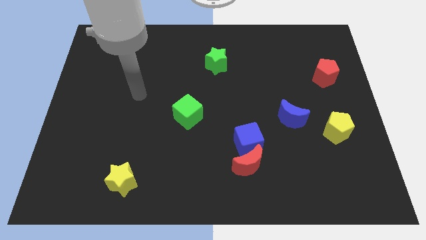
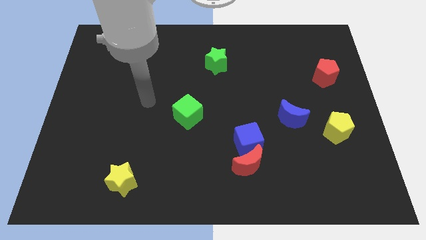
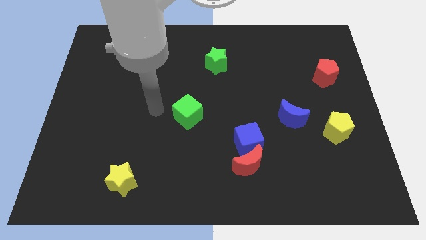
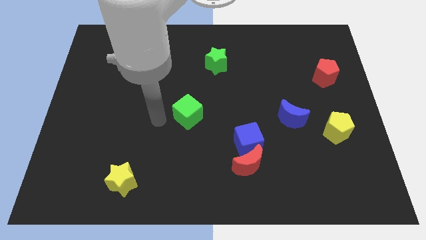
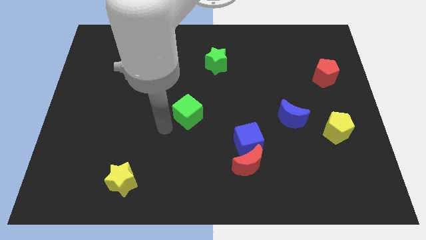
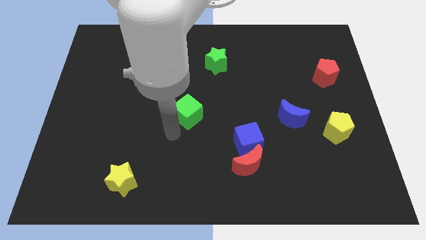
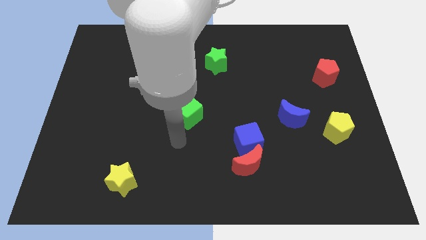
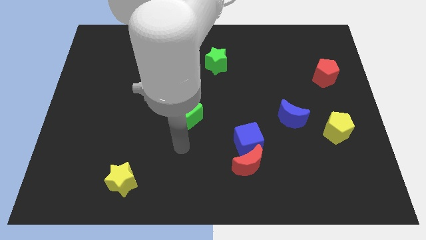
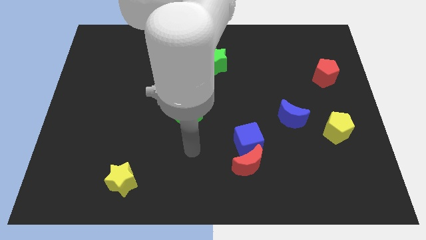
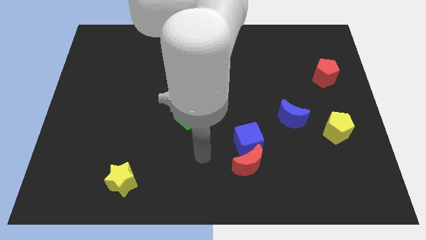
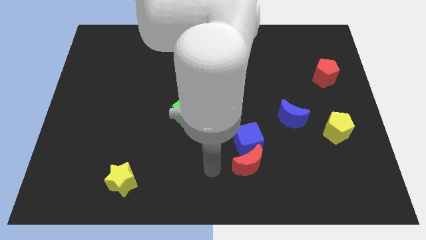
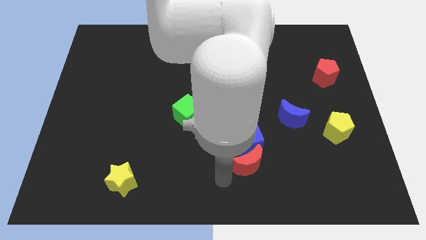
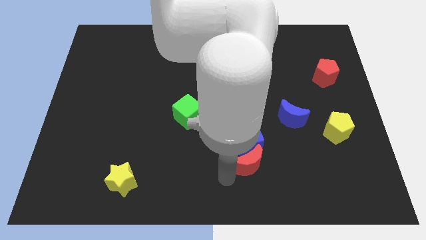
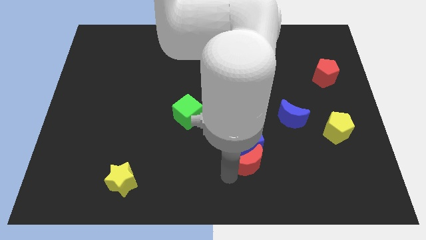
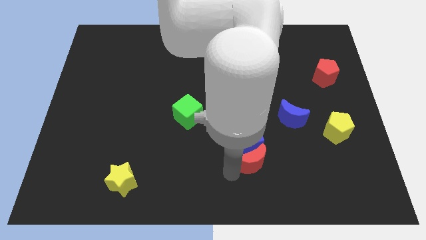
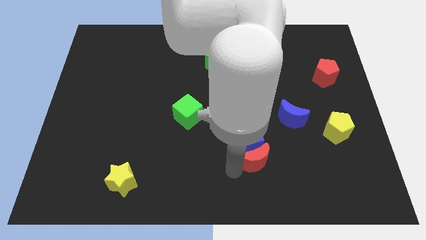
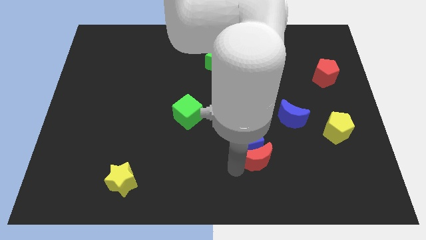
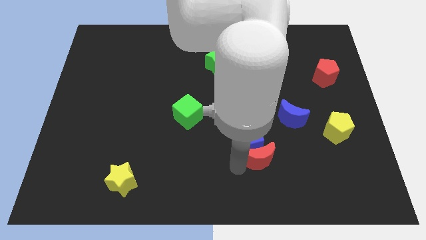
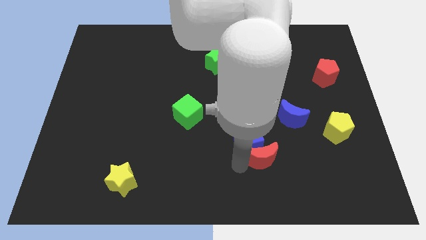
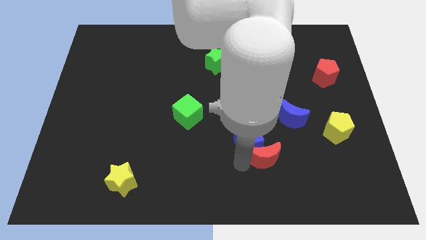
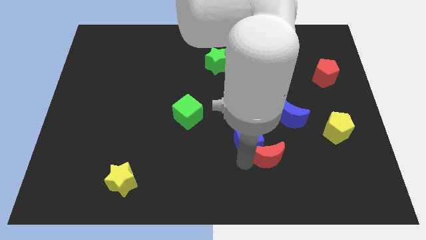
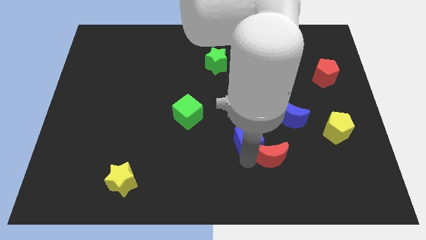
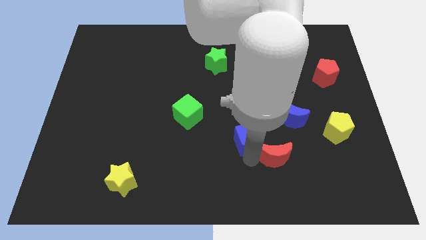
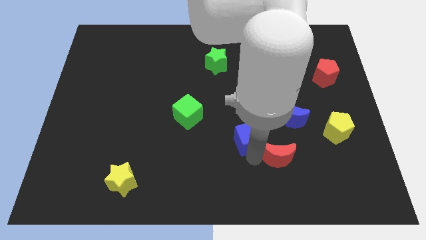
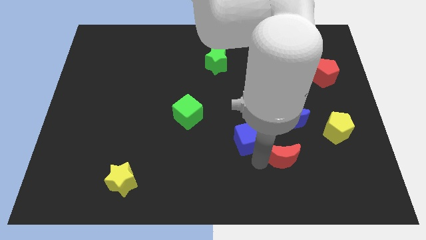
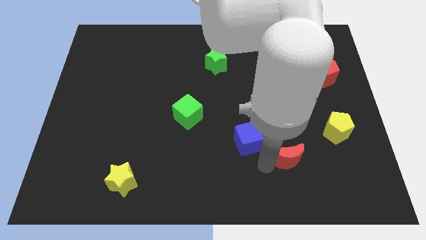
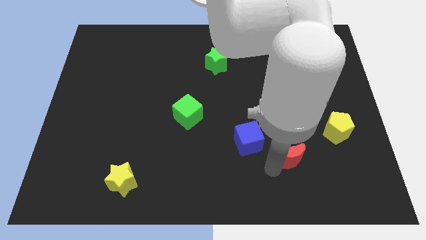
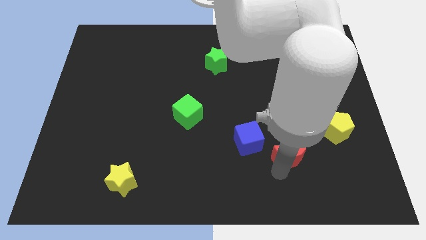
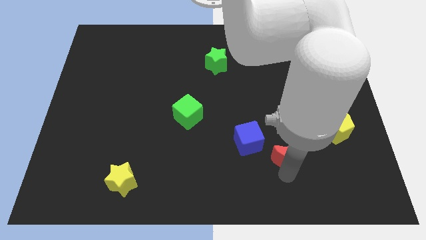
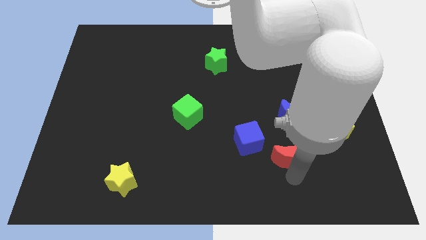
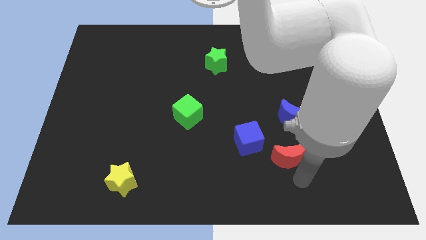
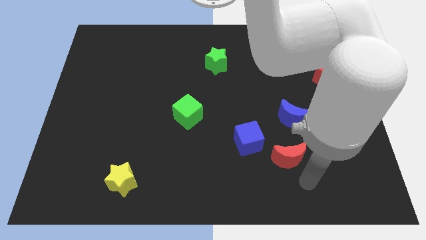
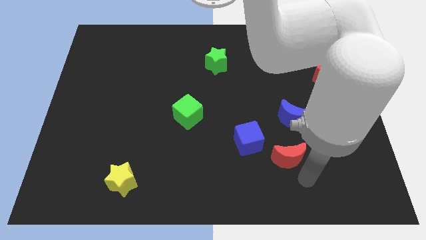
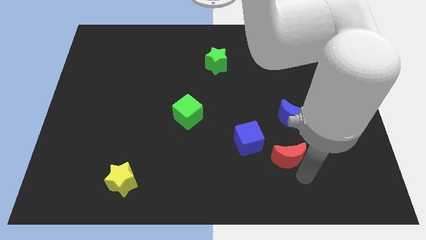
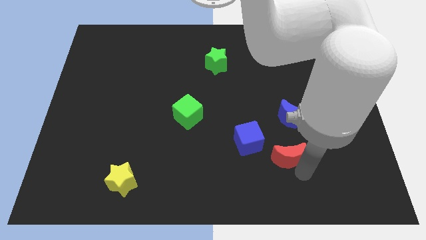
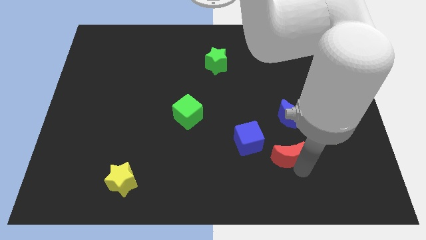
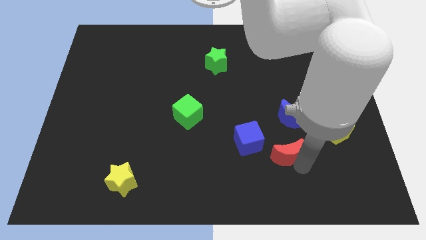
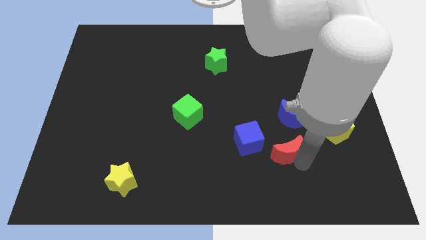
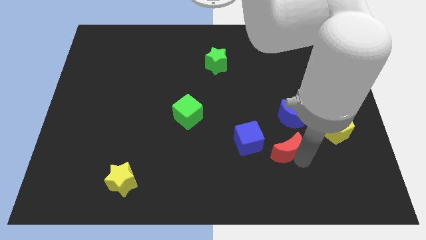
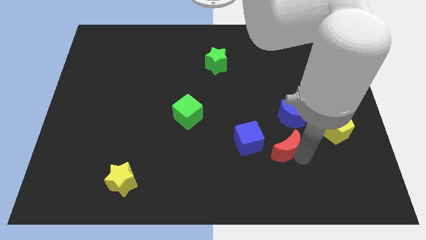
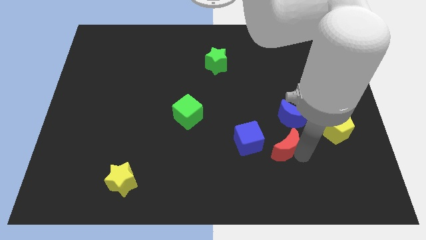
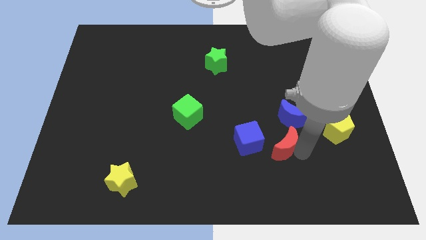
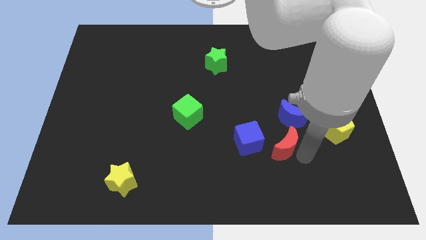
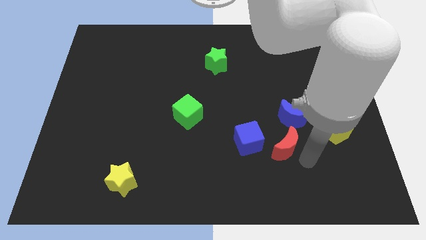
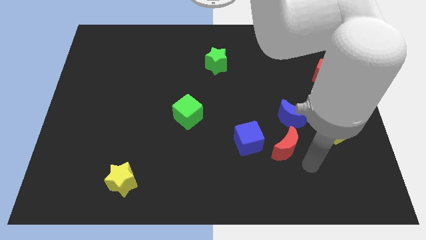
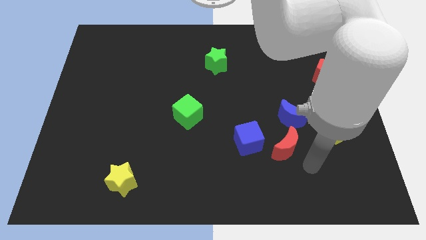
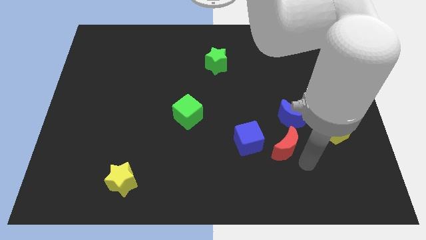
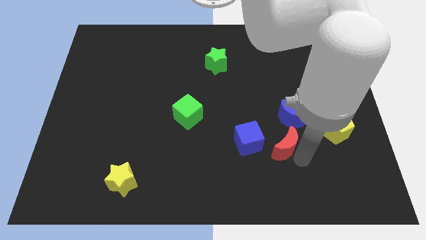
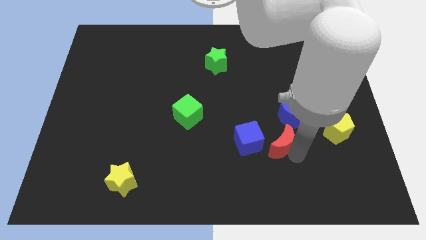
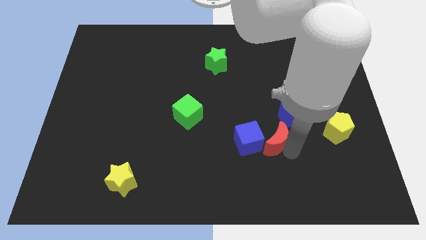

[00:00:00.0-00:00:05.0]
move the red moon to the top right of the blue cube

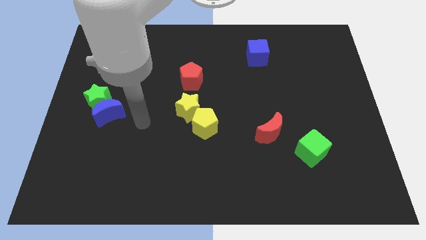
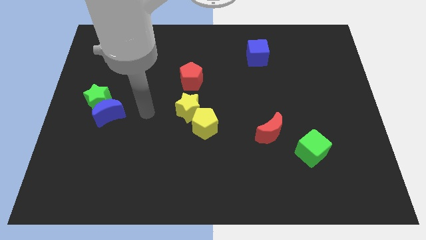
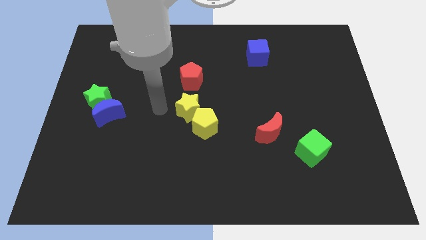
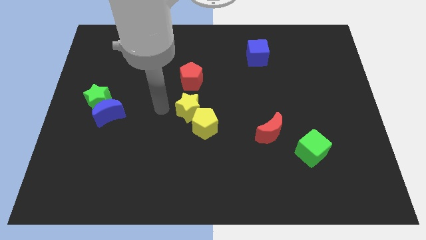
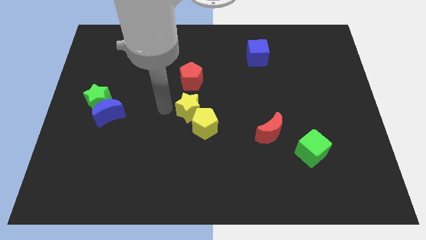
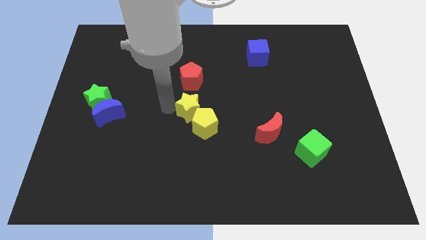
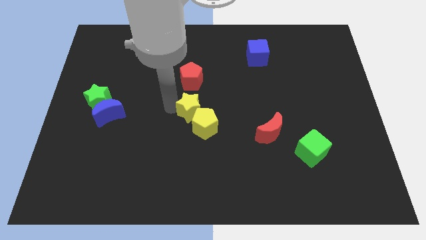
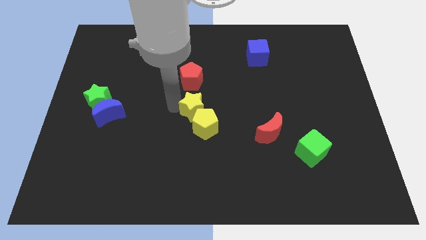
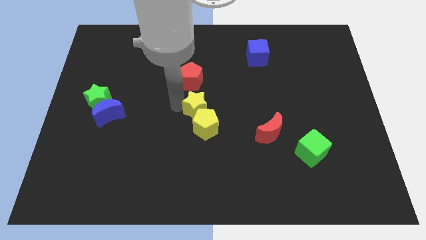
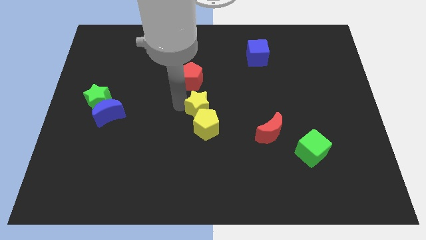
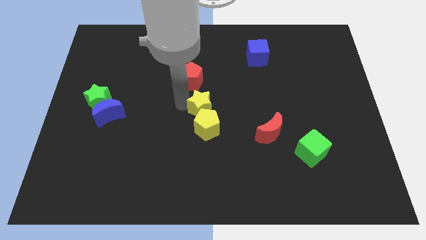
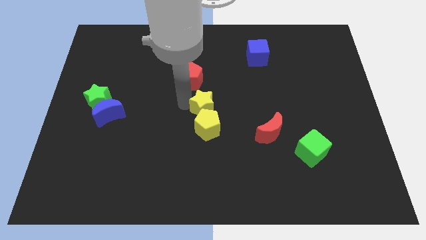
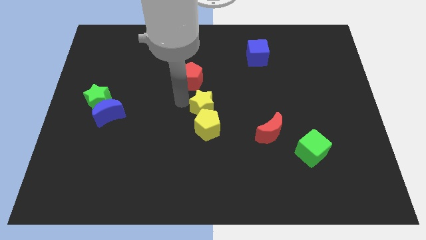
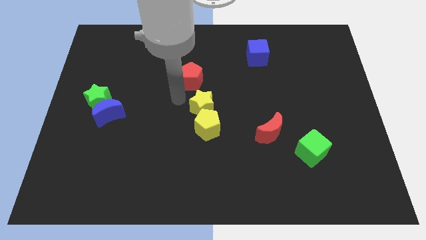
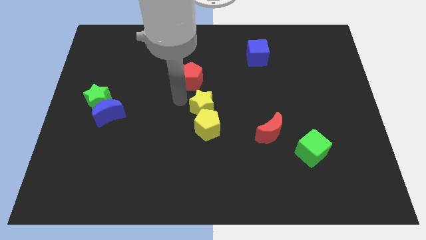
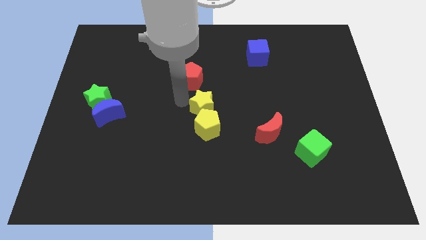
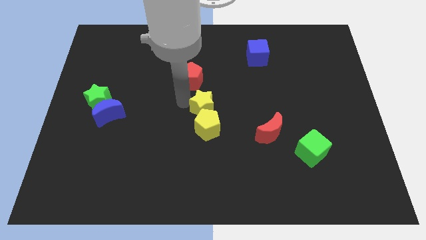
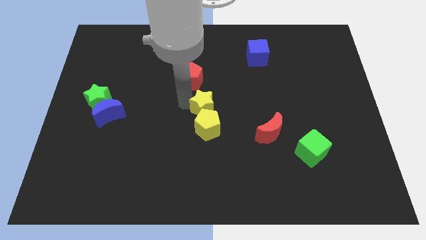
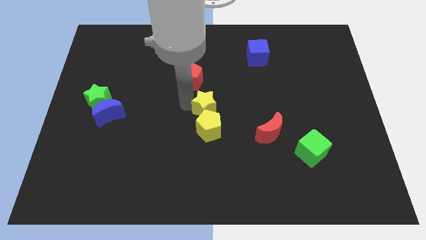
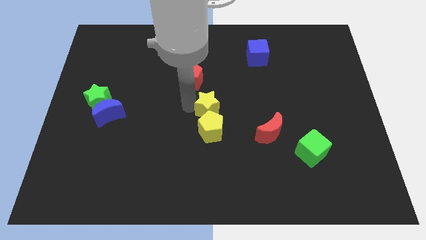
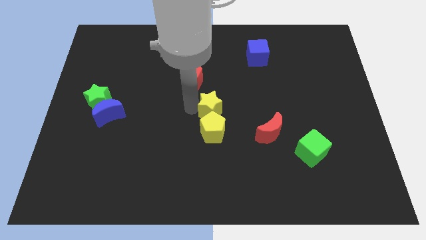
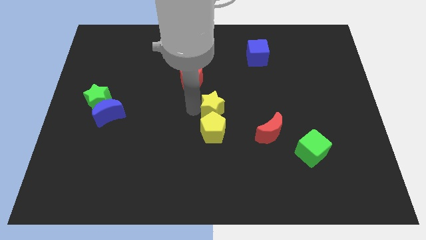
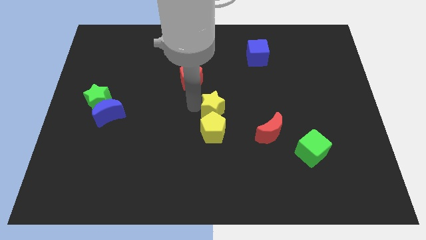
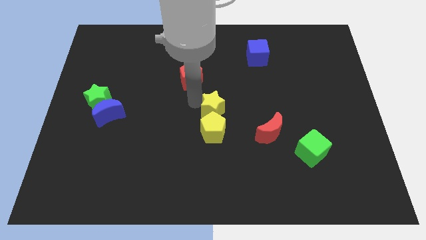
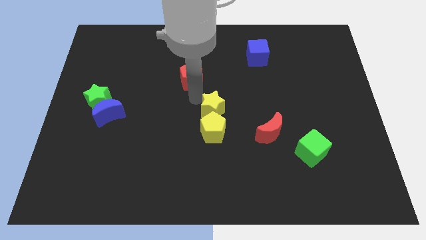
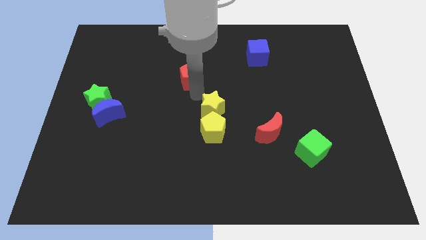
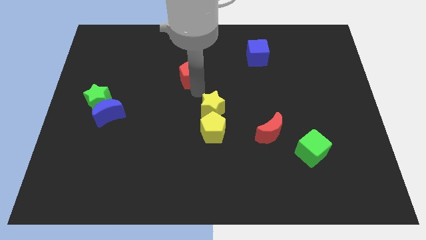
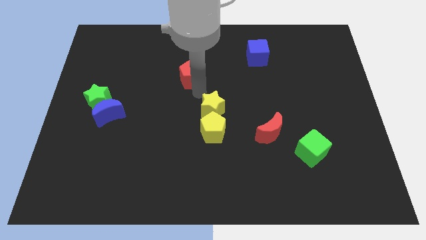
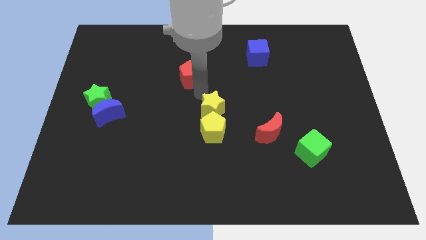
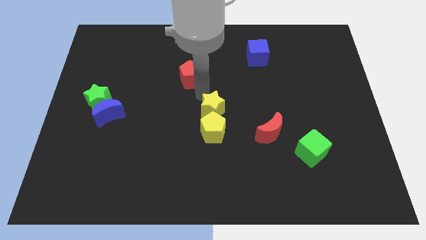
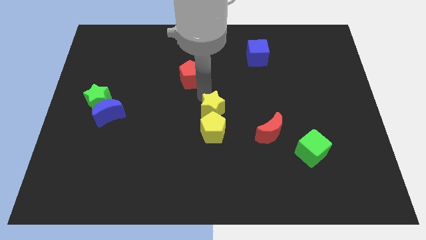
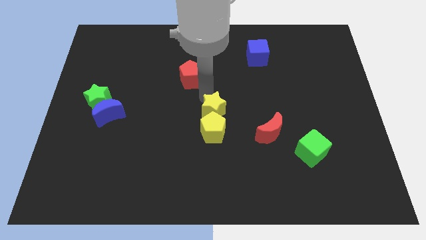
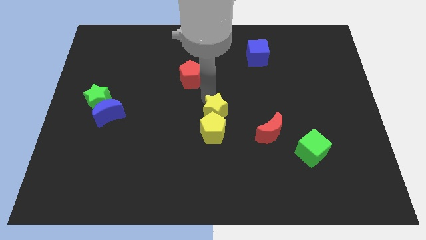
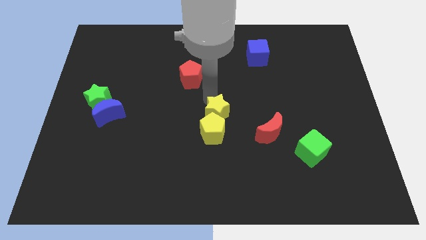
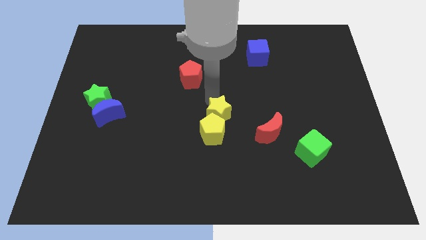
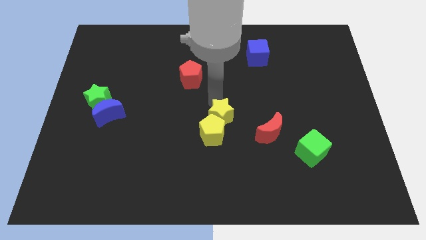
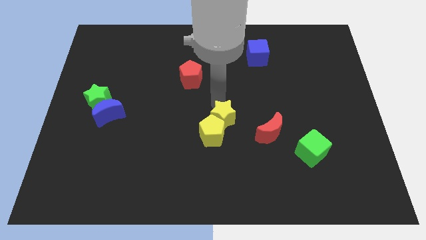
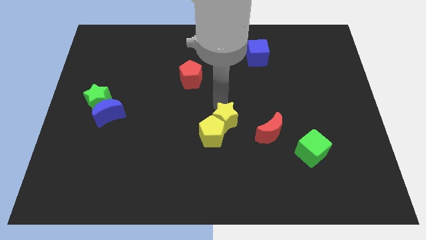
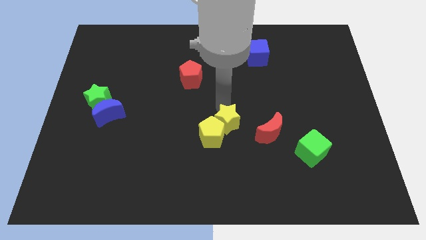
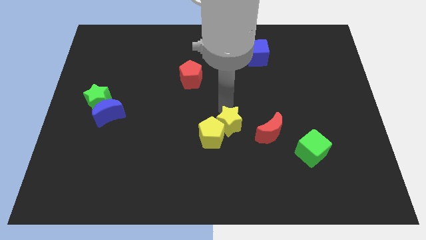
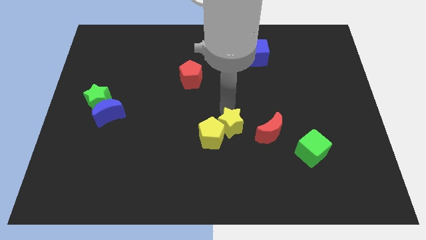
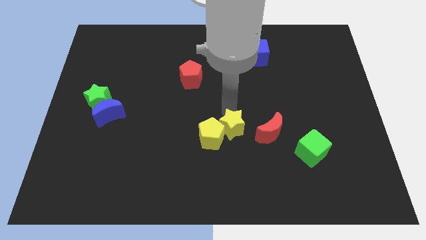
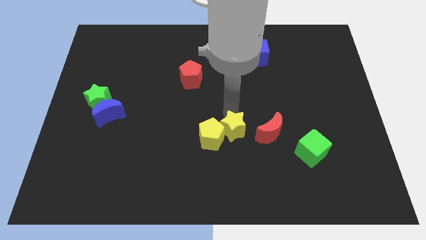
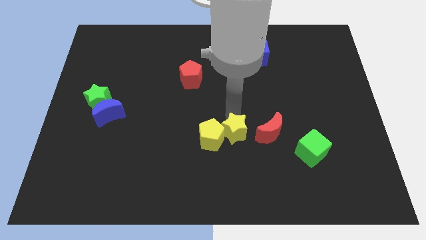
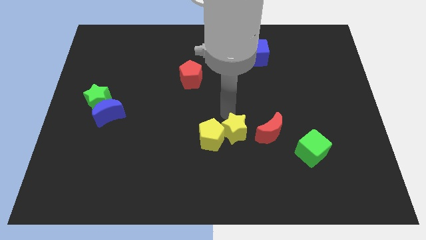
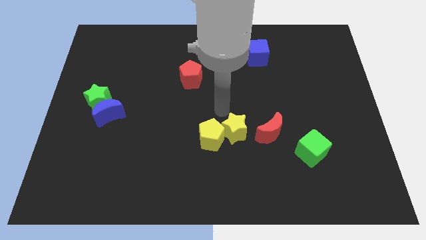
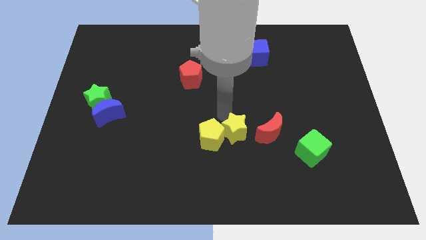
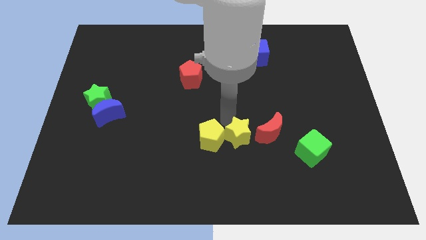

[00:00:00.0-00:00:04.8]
push the yellow star diagonally down and to the left of the red moon
